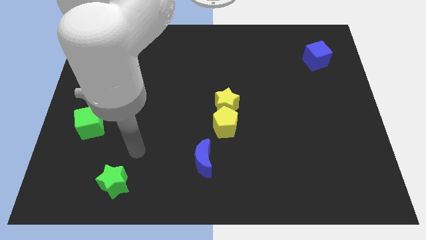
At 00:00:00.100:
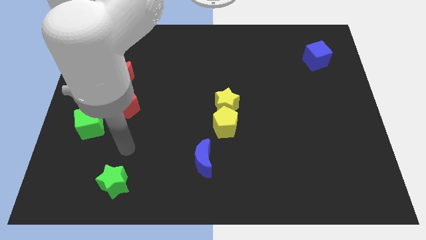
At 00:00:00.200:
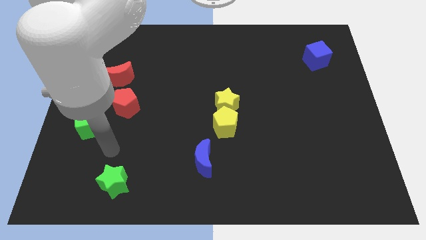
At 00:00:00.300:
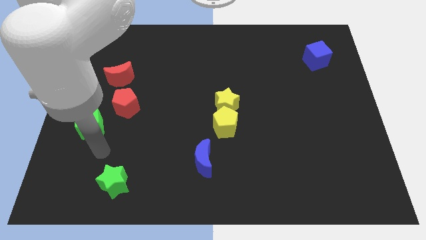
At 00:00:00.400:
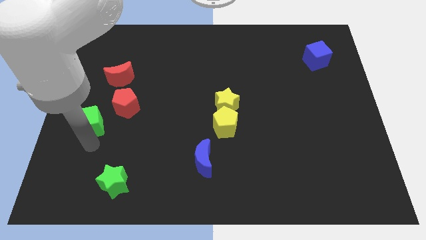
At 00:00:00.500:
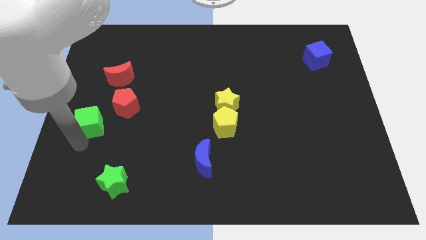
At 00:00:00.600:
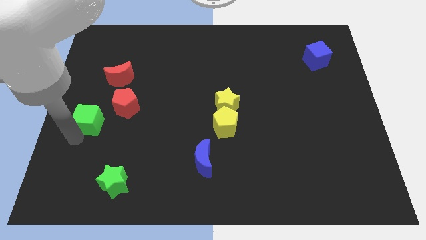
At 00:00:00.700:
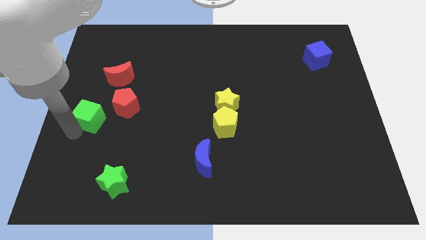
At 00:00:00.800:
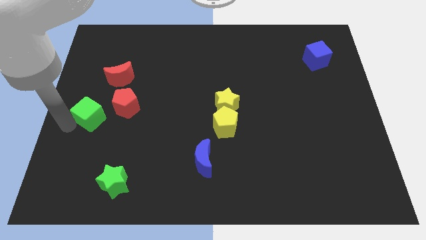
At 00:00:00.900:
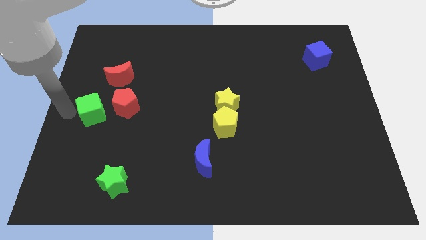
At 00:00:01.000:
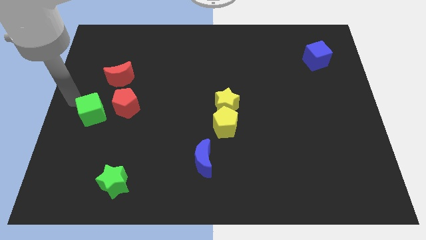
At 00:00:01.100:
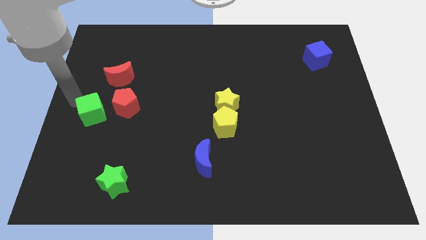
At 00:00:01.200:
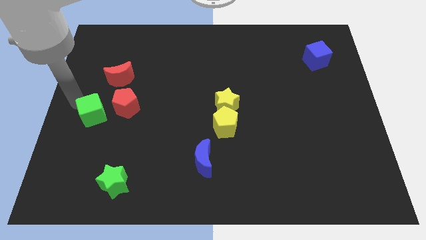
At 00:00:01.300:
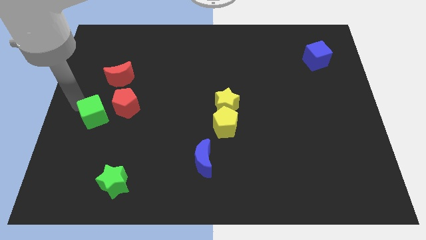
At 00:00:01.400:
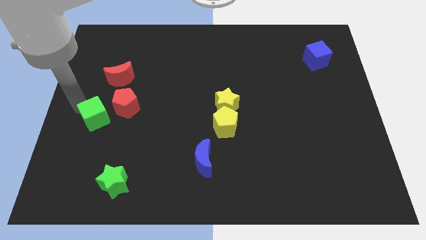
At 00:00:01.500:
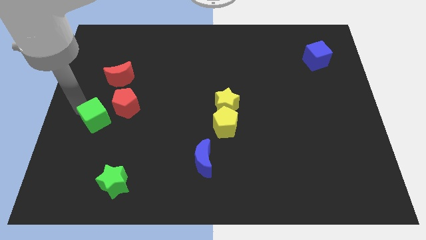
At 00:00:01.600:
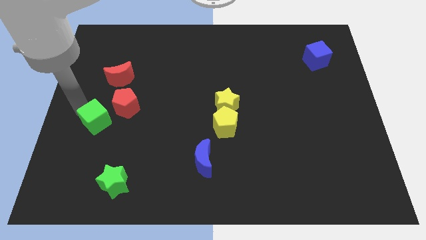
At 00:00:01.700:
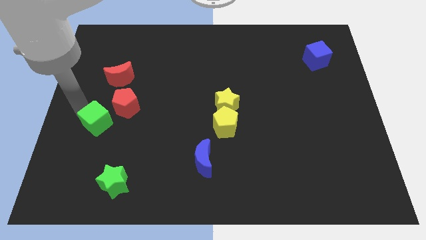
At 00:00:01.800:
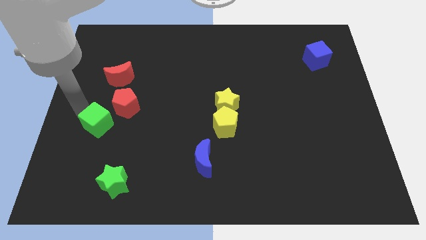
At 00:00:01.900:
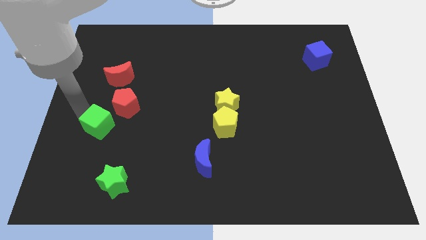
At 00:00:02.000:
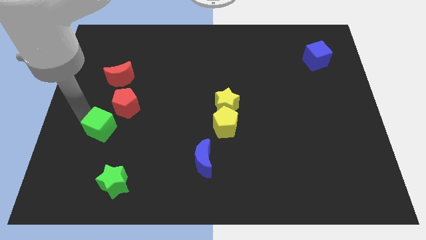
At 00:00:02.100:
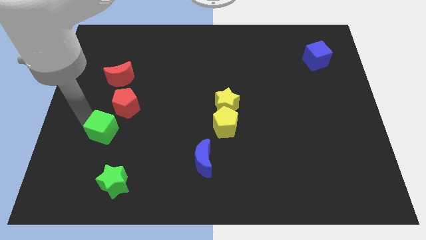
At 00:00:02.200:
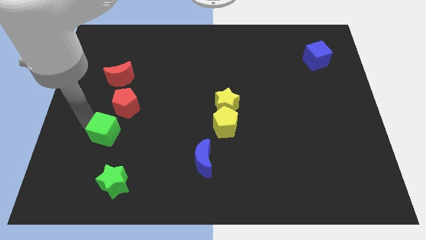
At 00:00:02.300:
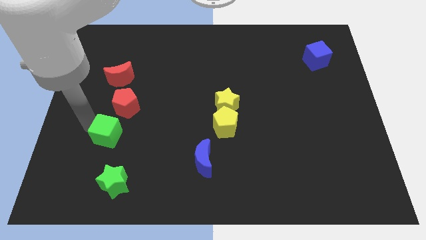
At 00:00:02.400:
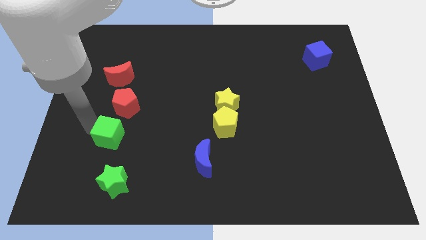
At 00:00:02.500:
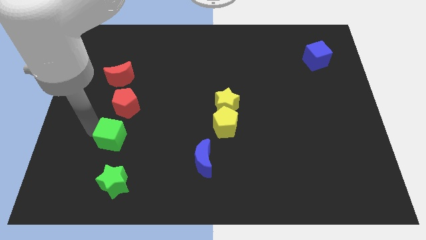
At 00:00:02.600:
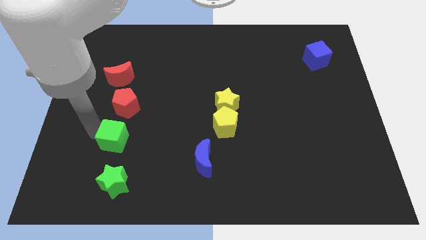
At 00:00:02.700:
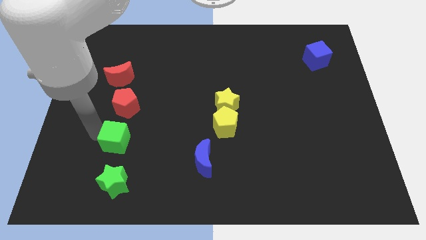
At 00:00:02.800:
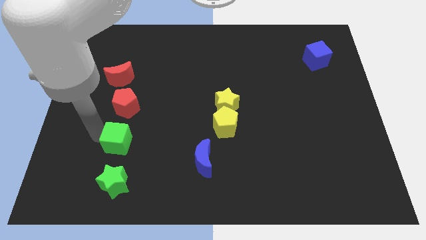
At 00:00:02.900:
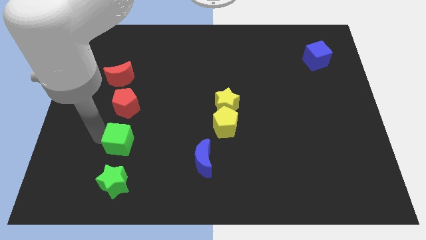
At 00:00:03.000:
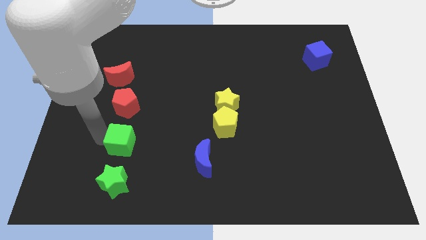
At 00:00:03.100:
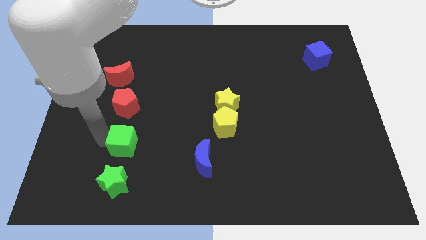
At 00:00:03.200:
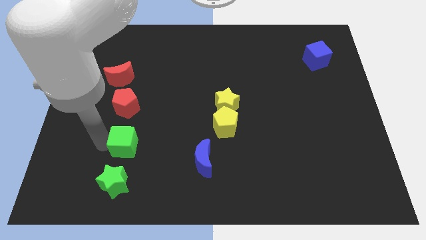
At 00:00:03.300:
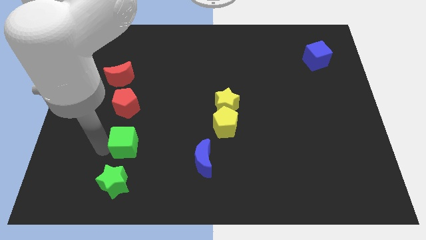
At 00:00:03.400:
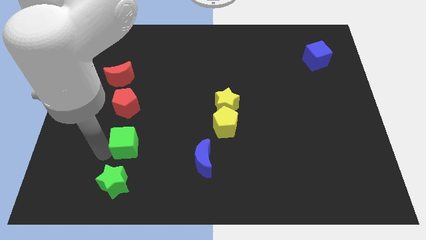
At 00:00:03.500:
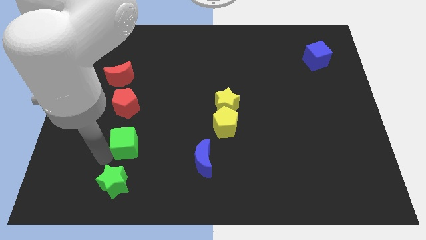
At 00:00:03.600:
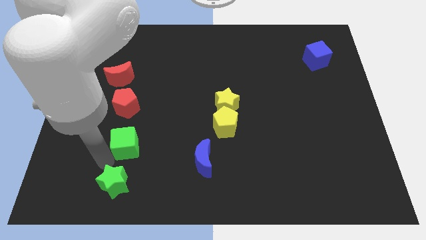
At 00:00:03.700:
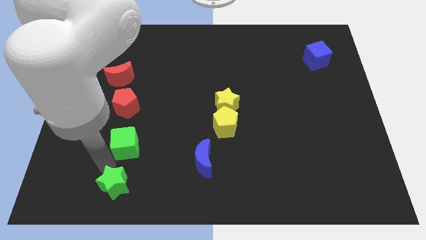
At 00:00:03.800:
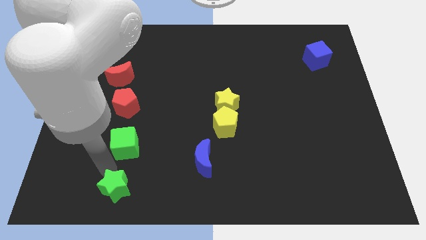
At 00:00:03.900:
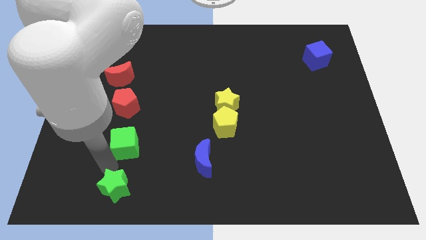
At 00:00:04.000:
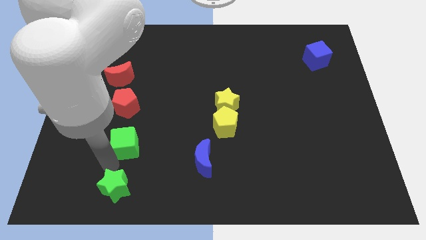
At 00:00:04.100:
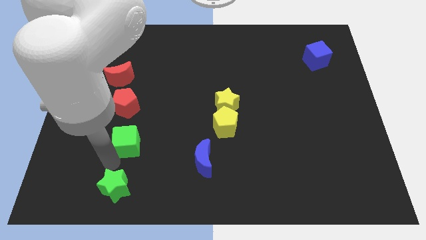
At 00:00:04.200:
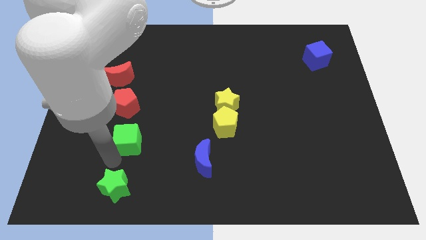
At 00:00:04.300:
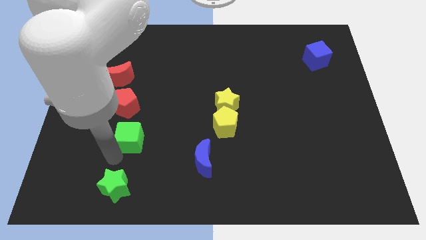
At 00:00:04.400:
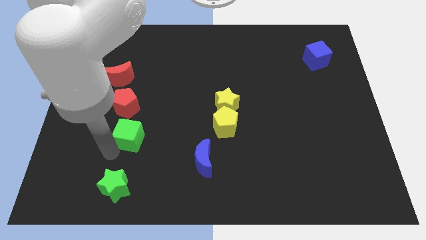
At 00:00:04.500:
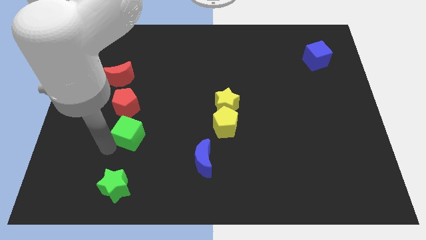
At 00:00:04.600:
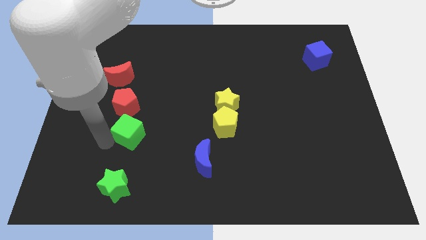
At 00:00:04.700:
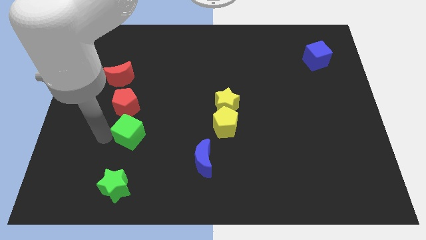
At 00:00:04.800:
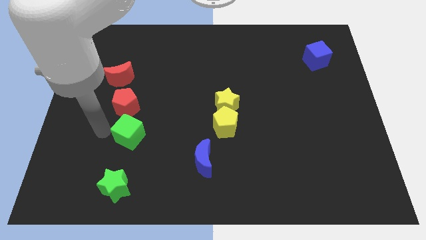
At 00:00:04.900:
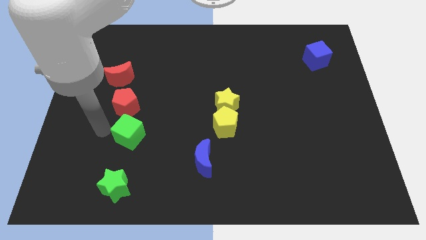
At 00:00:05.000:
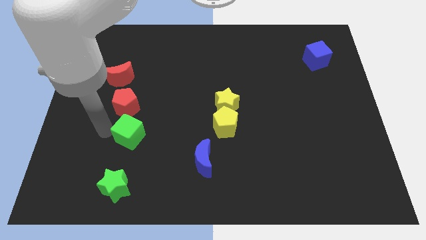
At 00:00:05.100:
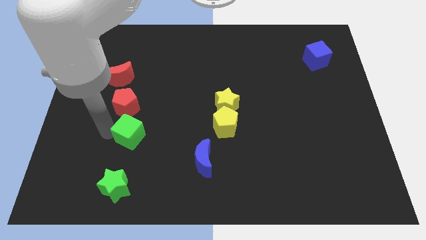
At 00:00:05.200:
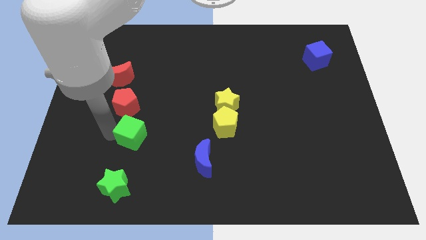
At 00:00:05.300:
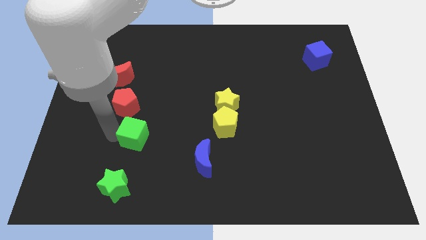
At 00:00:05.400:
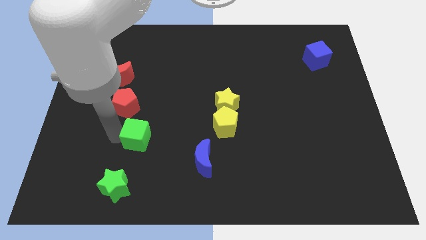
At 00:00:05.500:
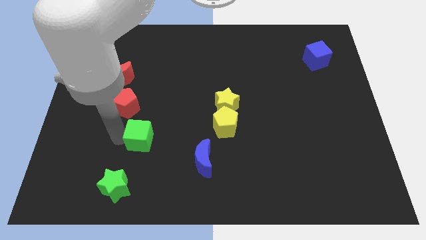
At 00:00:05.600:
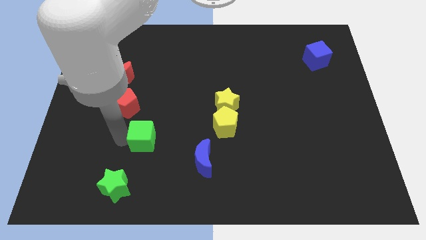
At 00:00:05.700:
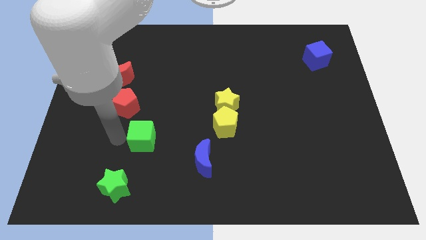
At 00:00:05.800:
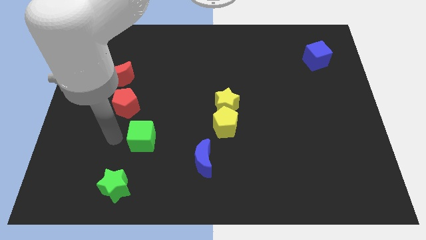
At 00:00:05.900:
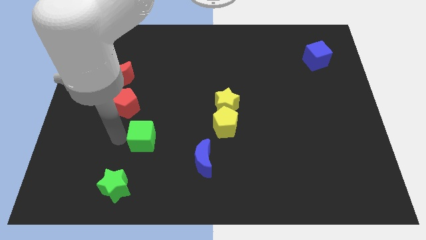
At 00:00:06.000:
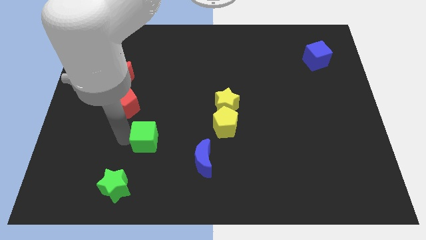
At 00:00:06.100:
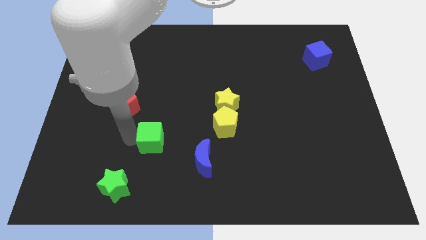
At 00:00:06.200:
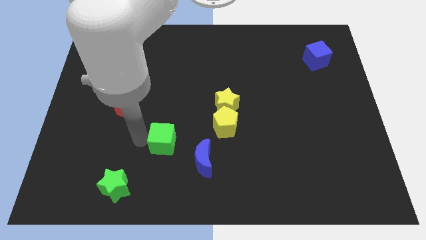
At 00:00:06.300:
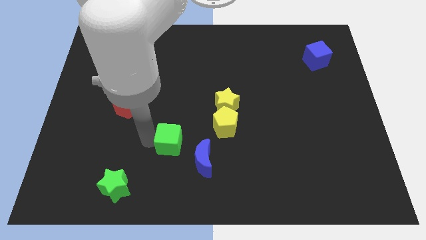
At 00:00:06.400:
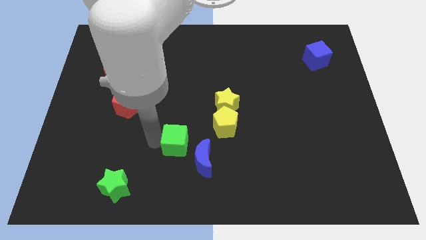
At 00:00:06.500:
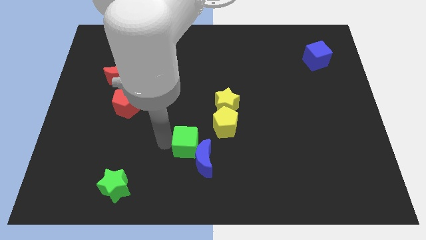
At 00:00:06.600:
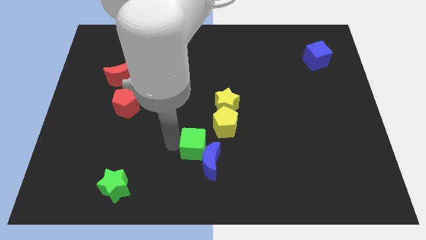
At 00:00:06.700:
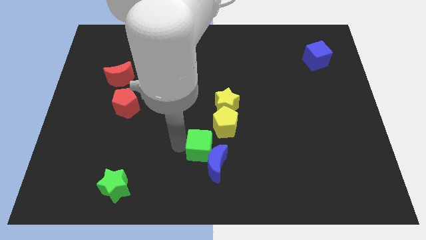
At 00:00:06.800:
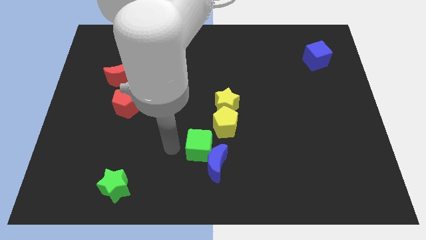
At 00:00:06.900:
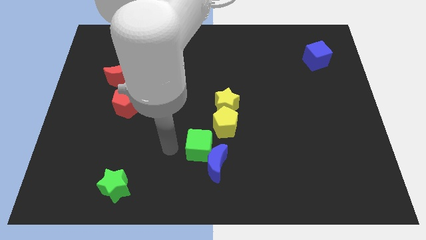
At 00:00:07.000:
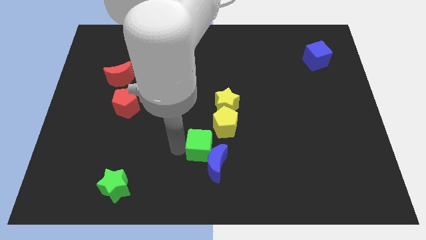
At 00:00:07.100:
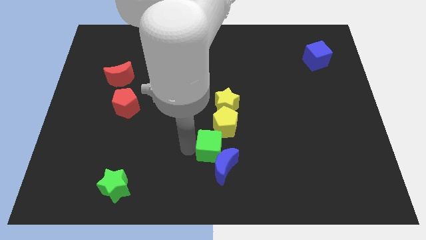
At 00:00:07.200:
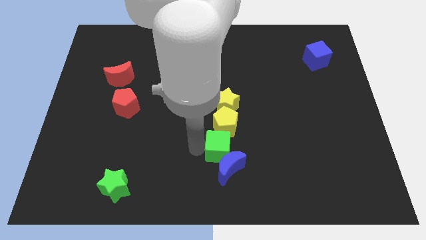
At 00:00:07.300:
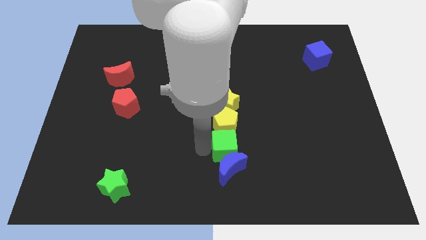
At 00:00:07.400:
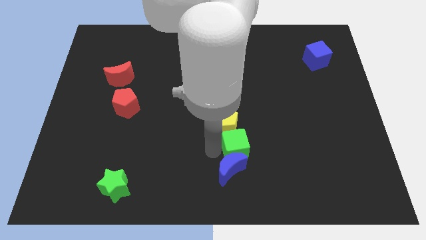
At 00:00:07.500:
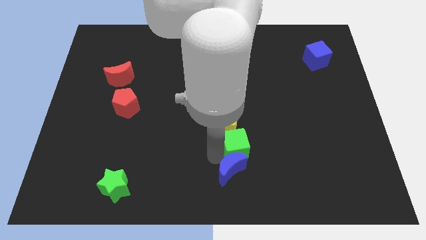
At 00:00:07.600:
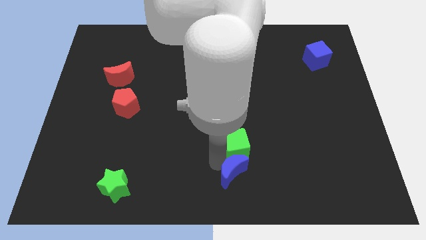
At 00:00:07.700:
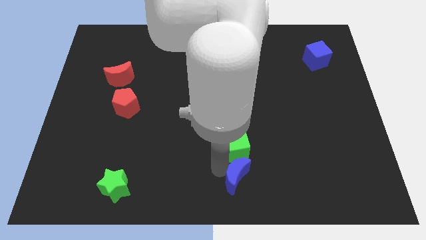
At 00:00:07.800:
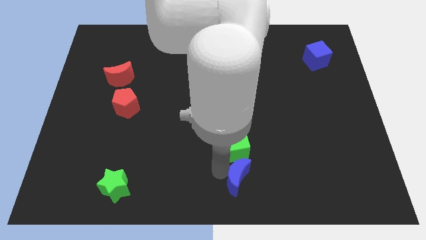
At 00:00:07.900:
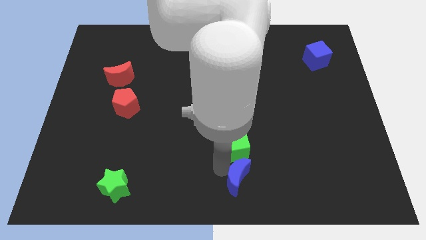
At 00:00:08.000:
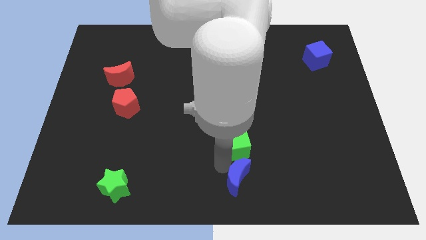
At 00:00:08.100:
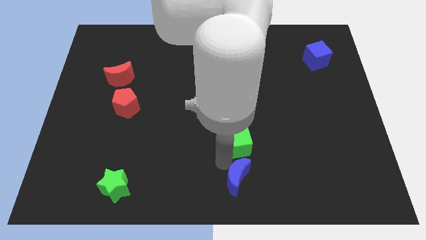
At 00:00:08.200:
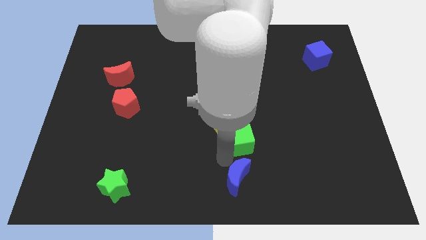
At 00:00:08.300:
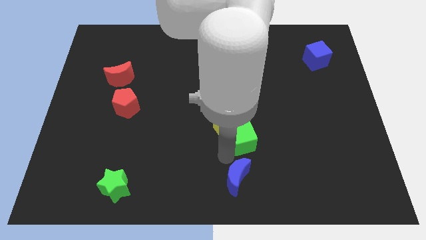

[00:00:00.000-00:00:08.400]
put the green cube diagonally down and to the right of the yellow star
